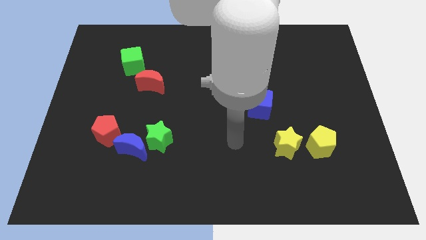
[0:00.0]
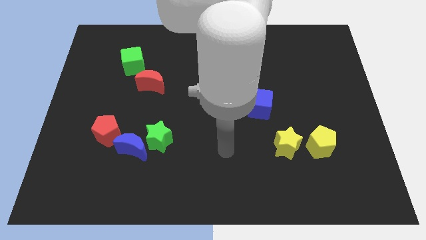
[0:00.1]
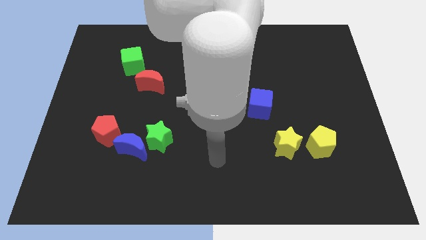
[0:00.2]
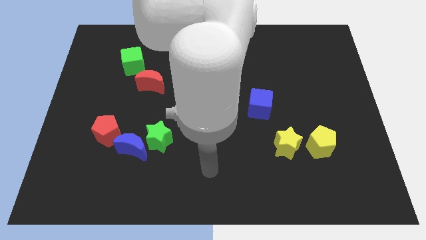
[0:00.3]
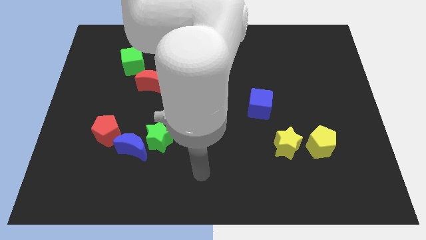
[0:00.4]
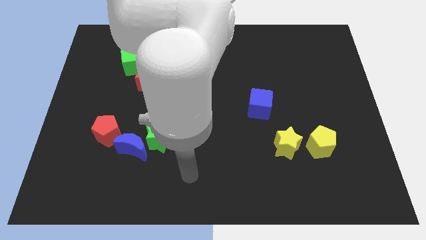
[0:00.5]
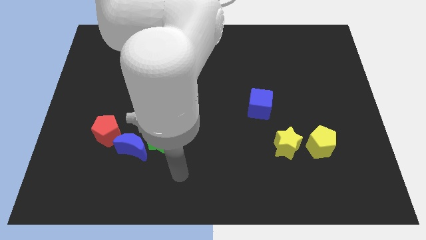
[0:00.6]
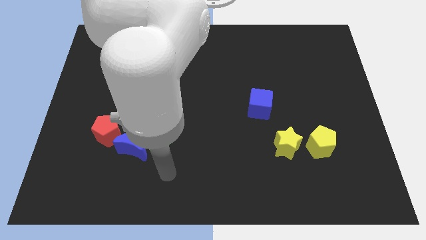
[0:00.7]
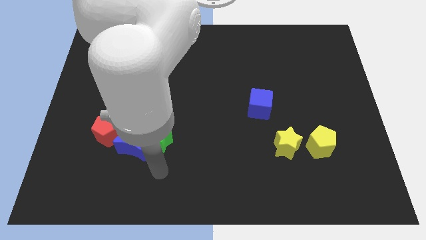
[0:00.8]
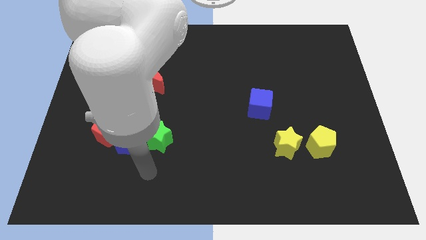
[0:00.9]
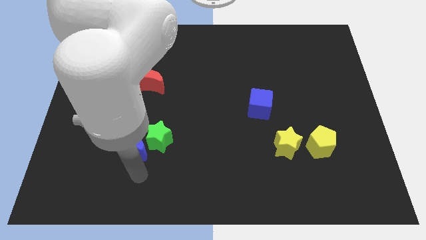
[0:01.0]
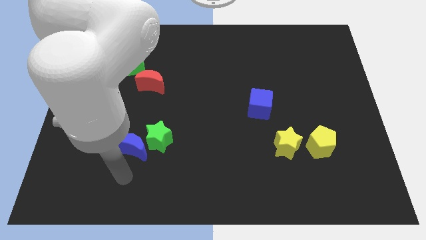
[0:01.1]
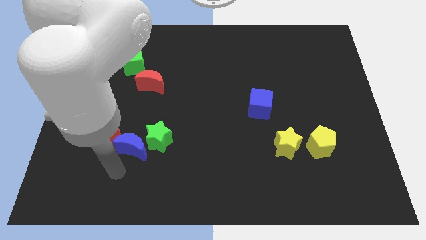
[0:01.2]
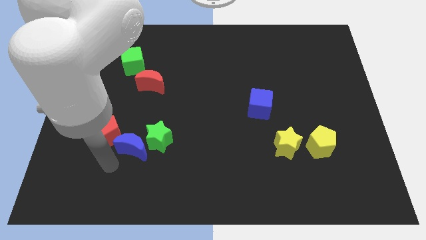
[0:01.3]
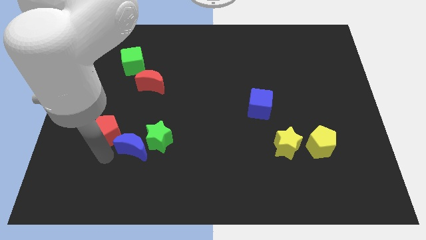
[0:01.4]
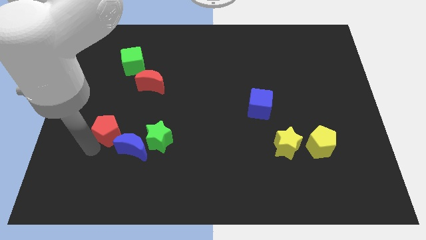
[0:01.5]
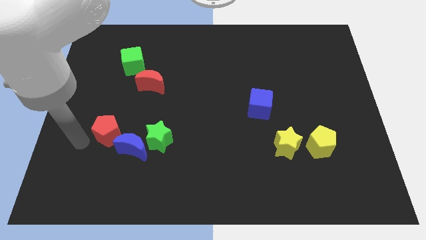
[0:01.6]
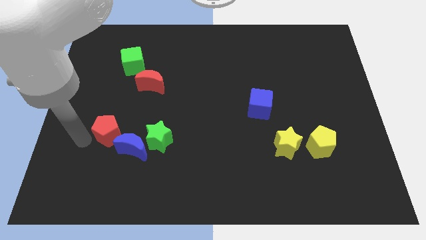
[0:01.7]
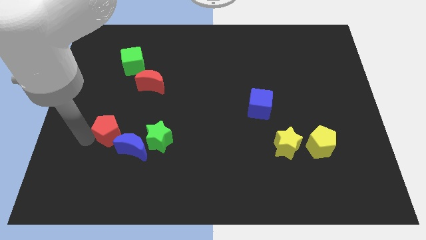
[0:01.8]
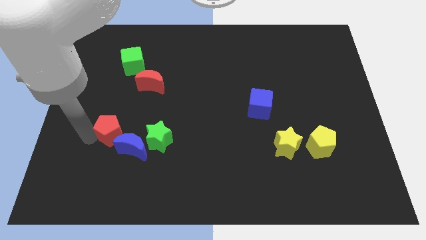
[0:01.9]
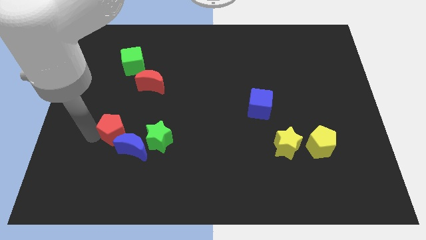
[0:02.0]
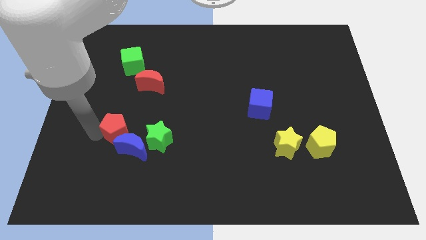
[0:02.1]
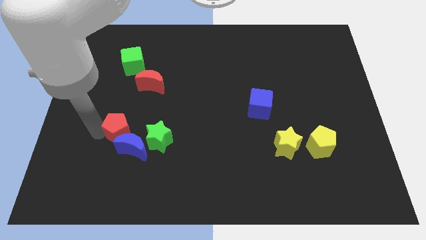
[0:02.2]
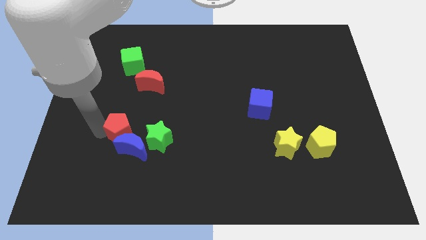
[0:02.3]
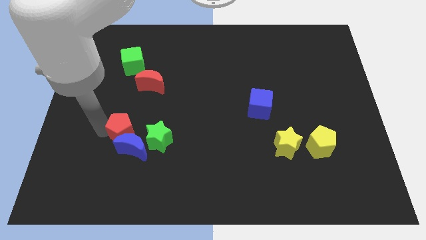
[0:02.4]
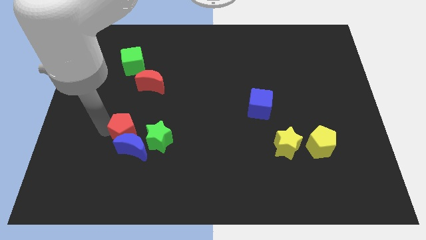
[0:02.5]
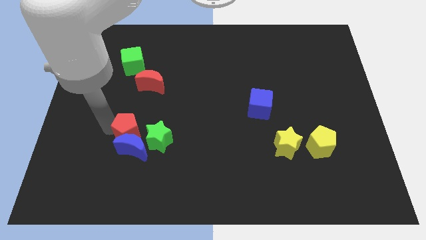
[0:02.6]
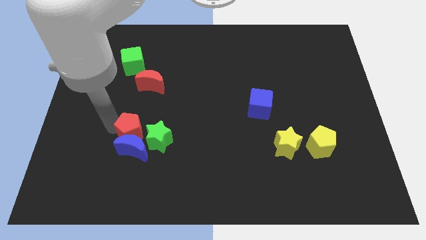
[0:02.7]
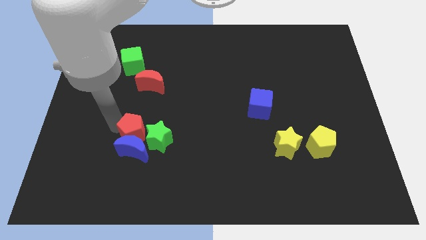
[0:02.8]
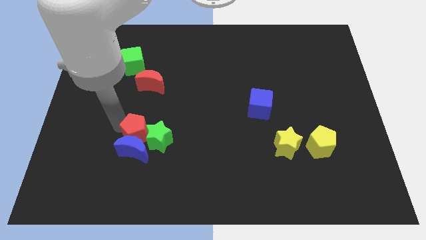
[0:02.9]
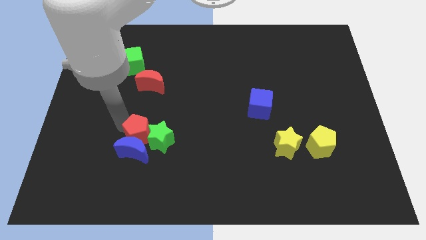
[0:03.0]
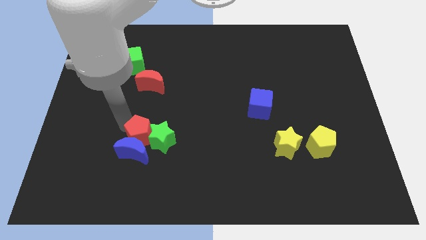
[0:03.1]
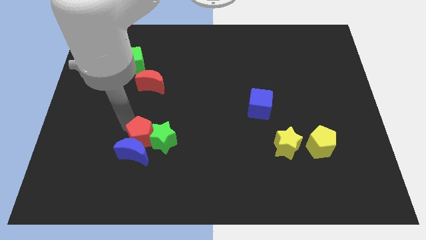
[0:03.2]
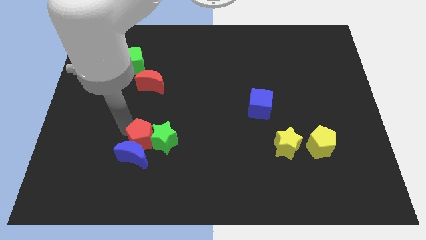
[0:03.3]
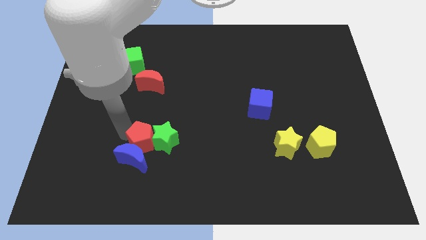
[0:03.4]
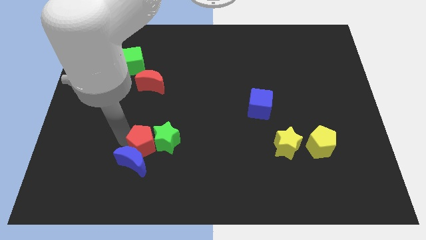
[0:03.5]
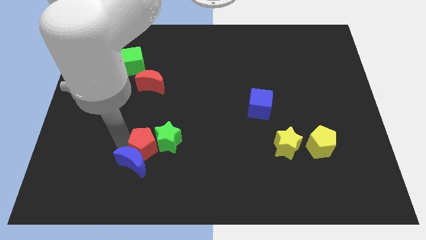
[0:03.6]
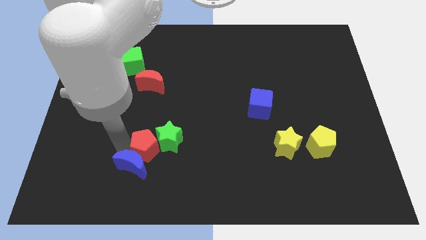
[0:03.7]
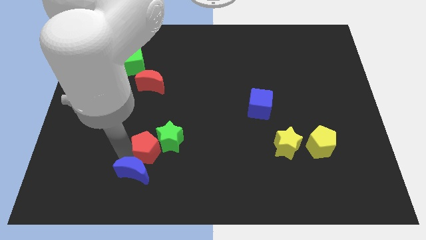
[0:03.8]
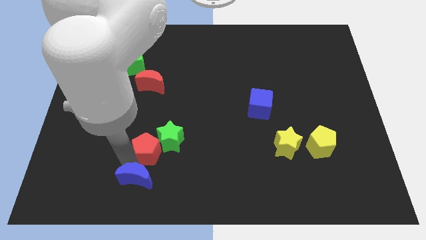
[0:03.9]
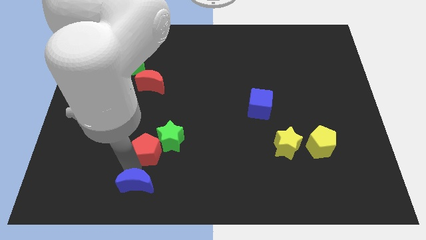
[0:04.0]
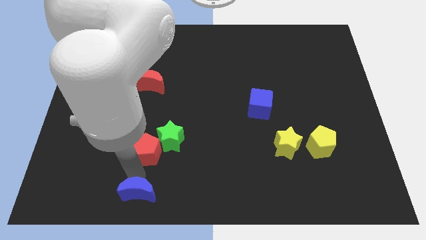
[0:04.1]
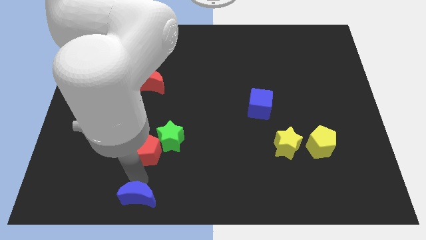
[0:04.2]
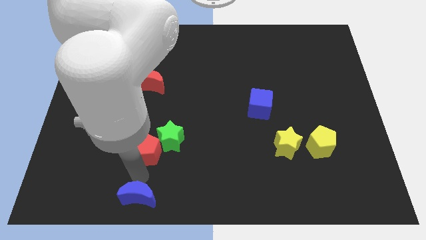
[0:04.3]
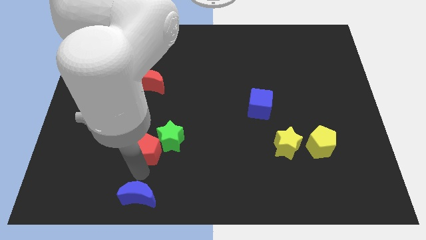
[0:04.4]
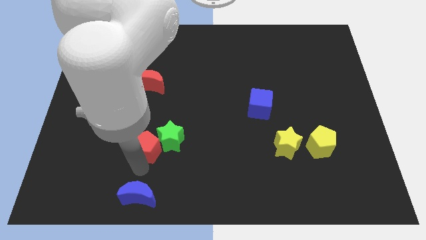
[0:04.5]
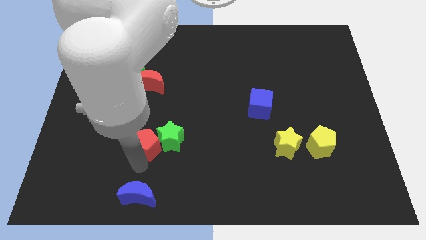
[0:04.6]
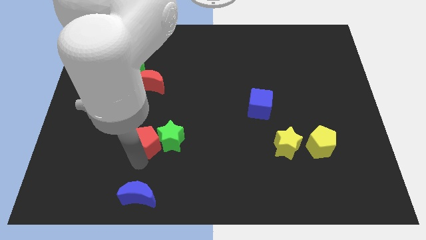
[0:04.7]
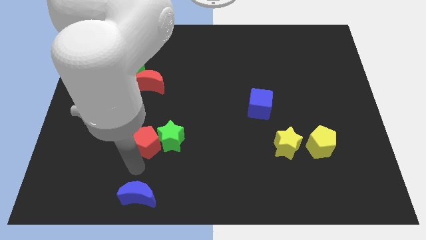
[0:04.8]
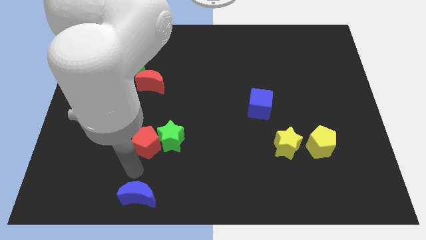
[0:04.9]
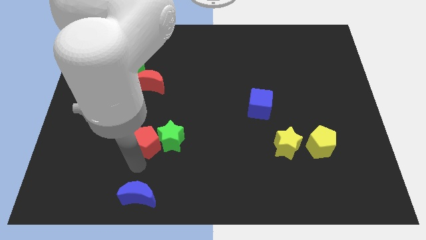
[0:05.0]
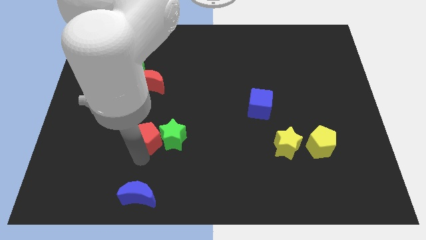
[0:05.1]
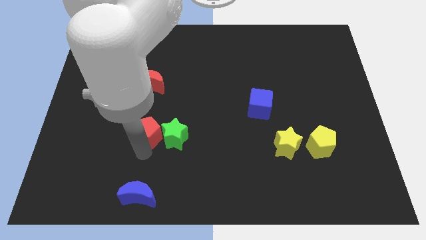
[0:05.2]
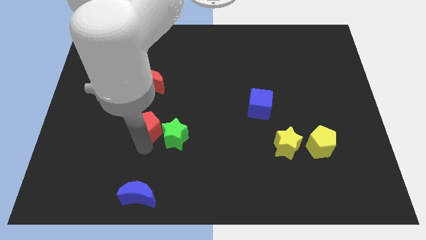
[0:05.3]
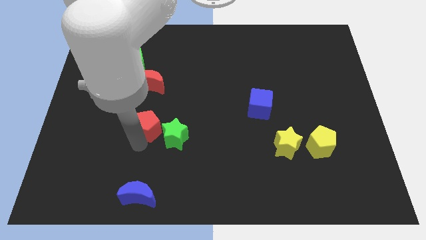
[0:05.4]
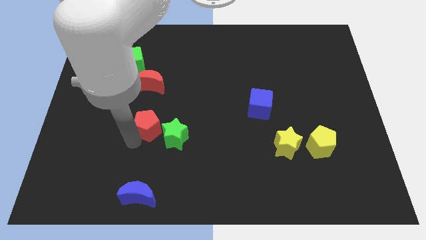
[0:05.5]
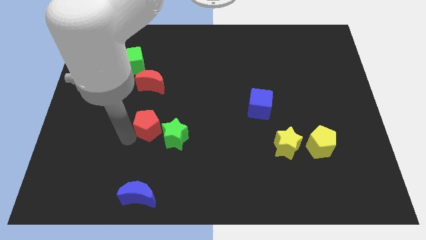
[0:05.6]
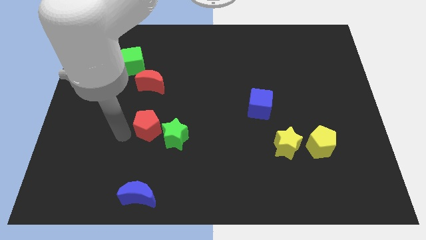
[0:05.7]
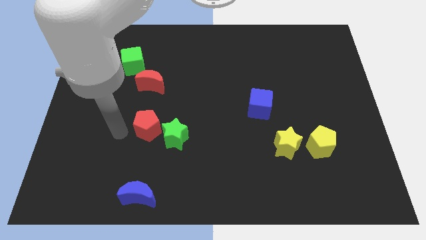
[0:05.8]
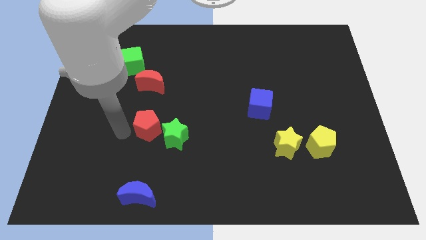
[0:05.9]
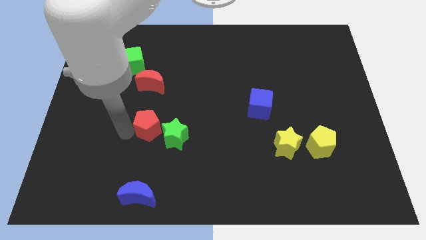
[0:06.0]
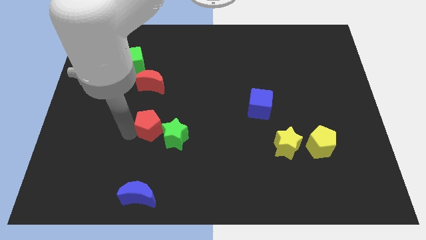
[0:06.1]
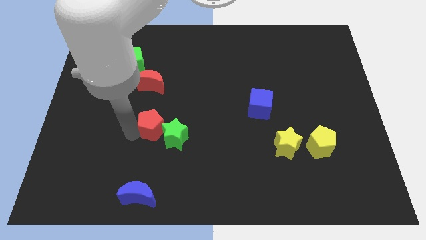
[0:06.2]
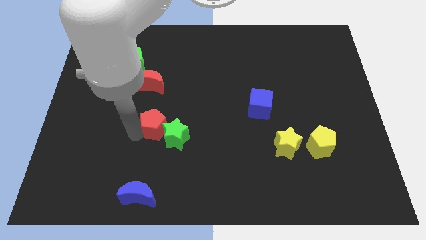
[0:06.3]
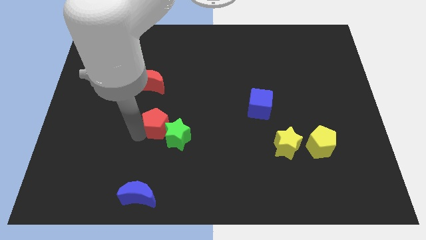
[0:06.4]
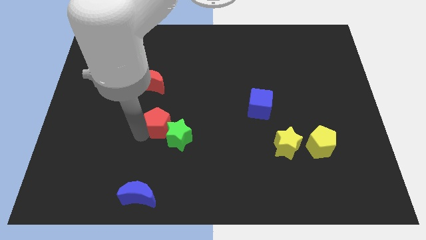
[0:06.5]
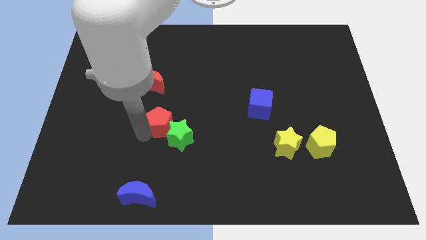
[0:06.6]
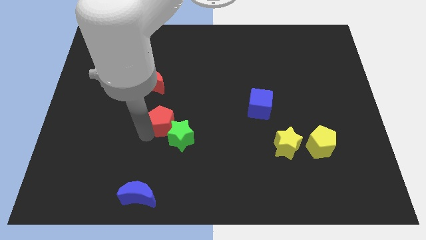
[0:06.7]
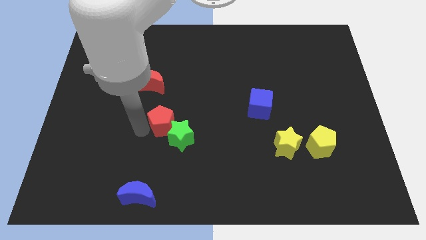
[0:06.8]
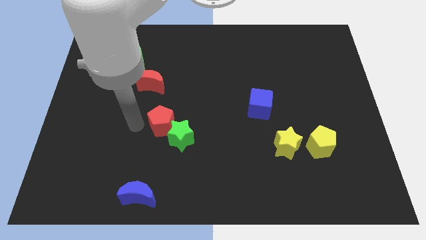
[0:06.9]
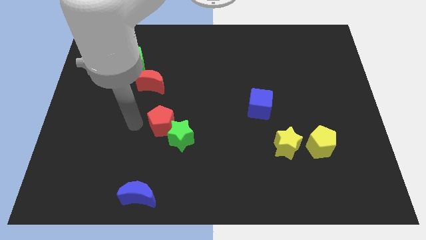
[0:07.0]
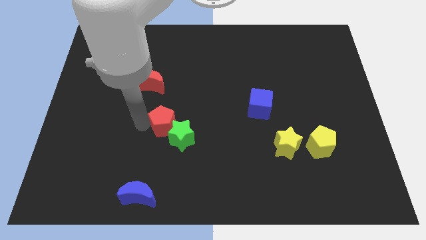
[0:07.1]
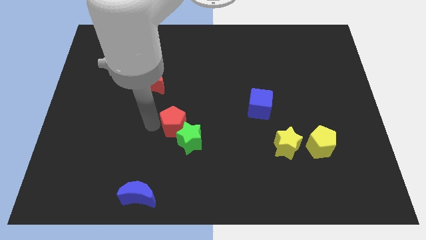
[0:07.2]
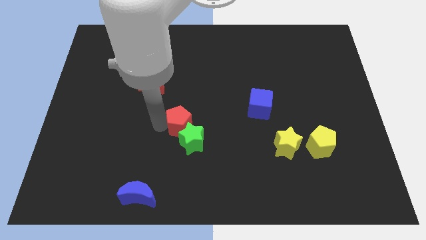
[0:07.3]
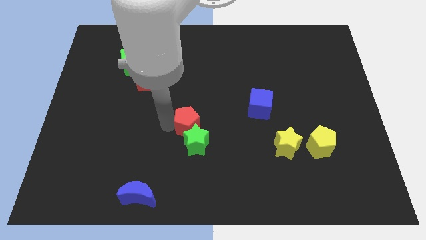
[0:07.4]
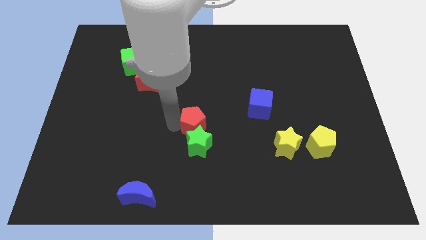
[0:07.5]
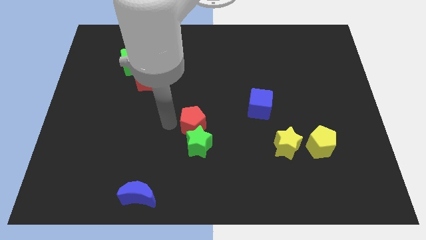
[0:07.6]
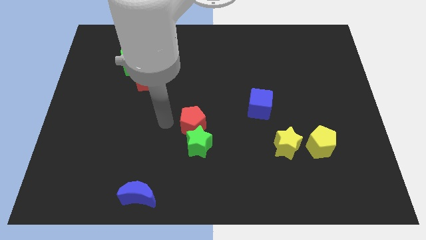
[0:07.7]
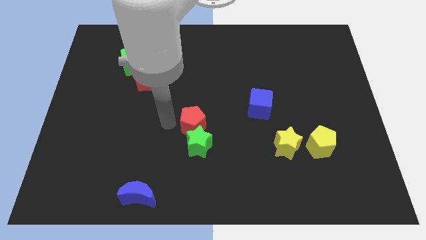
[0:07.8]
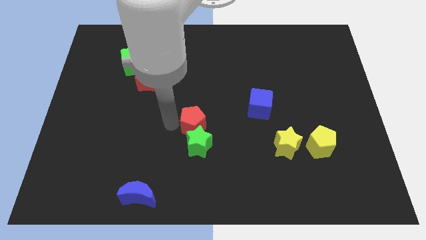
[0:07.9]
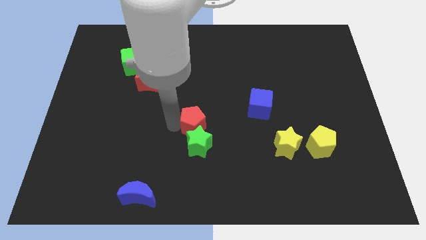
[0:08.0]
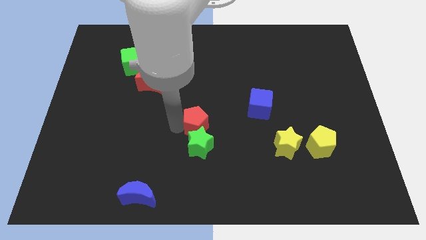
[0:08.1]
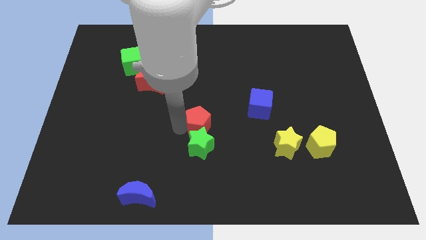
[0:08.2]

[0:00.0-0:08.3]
push the red pentagon to the right
